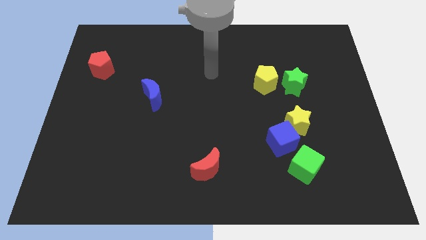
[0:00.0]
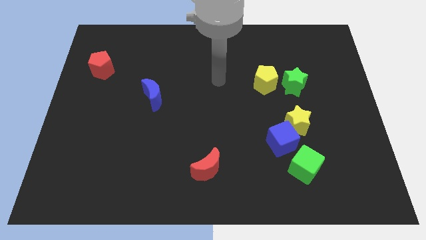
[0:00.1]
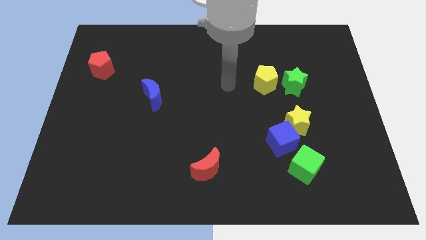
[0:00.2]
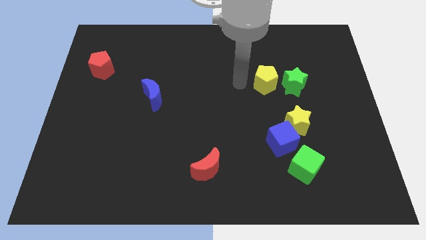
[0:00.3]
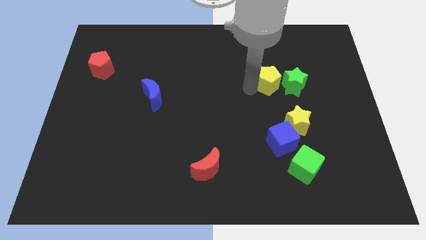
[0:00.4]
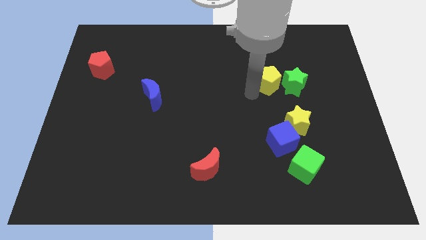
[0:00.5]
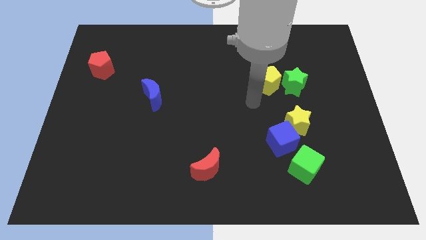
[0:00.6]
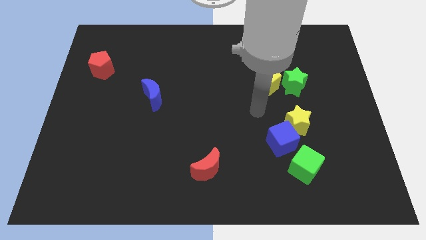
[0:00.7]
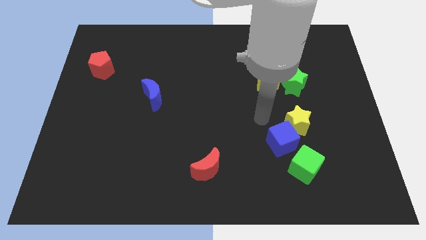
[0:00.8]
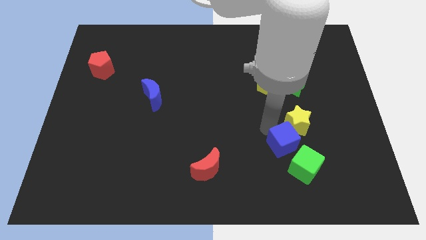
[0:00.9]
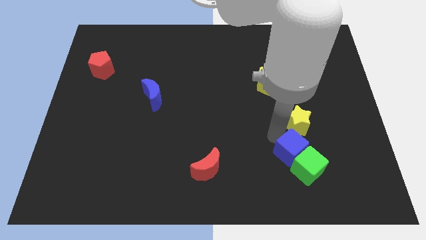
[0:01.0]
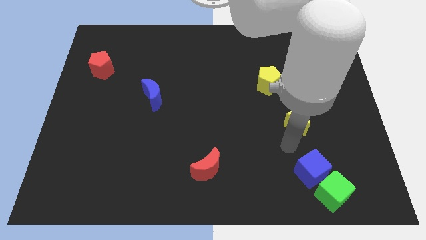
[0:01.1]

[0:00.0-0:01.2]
move the yellow star away from the blue cube

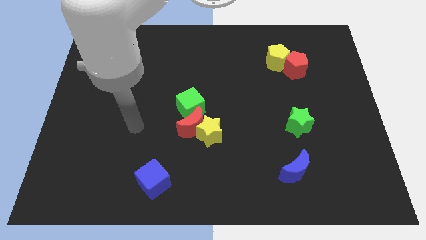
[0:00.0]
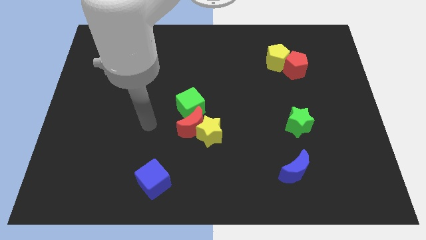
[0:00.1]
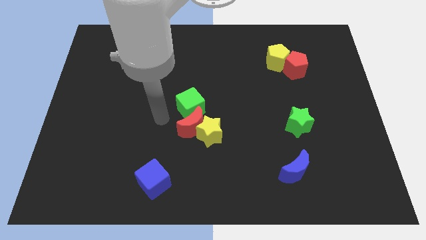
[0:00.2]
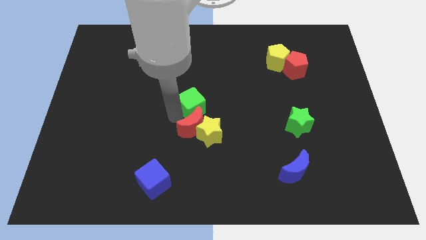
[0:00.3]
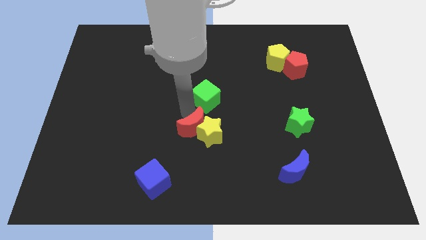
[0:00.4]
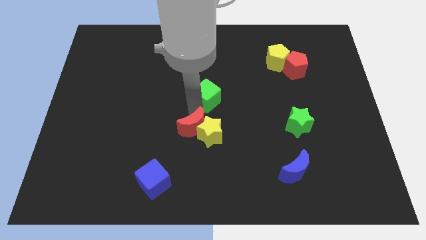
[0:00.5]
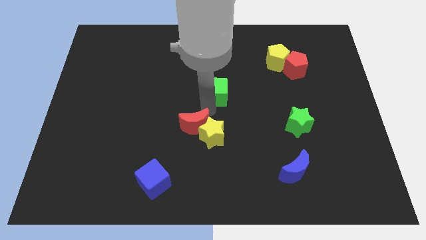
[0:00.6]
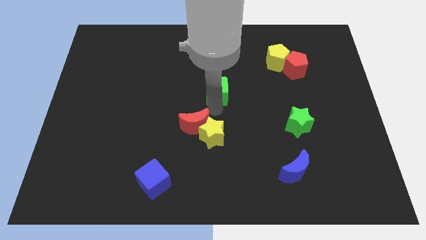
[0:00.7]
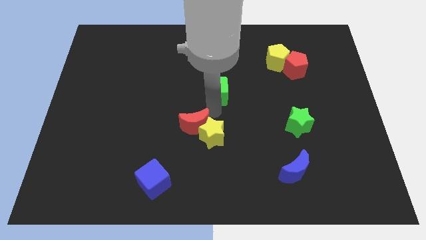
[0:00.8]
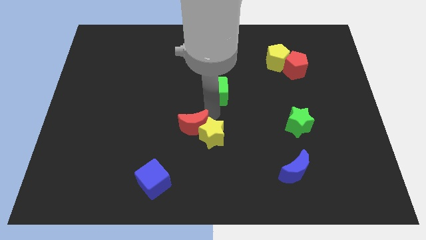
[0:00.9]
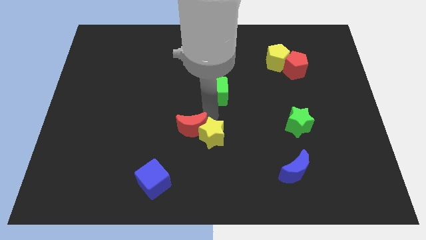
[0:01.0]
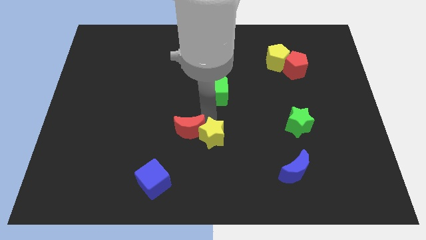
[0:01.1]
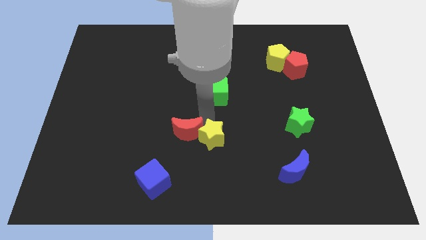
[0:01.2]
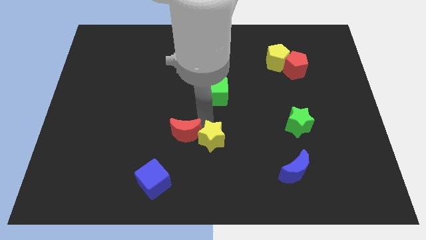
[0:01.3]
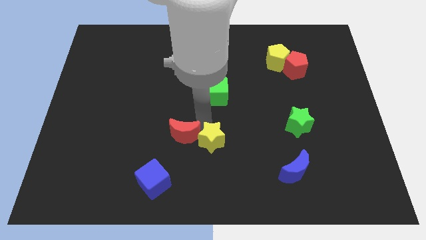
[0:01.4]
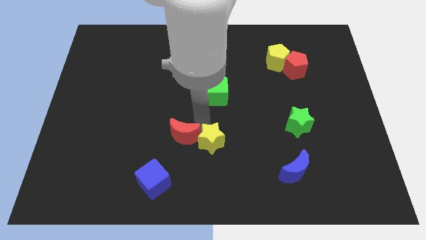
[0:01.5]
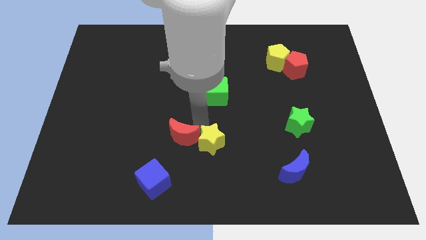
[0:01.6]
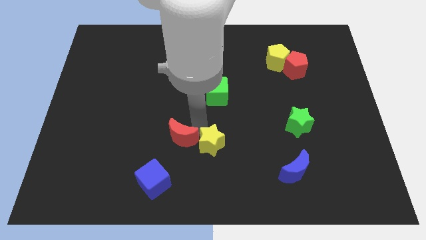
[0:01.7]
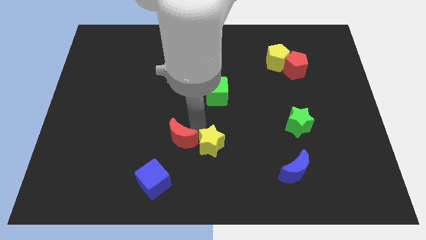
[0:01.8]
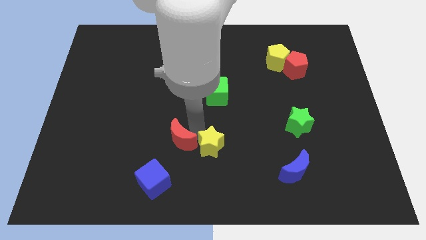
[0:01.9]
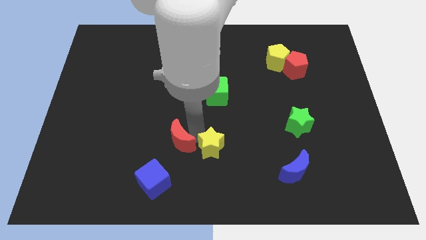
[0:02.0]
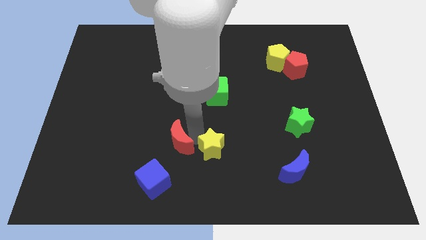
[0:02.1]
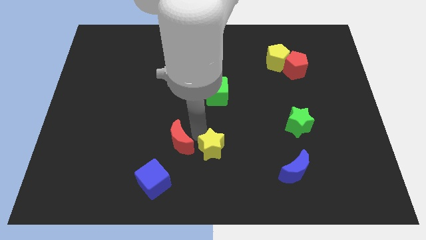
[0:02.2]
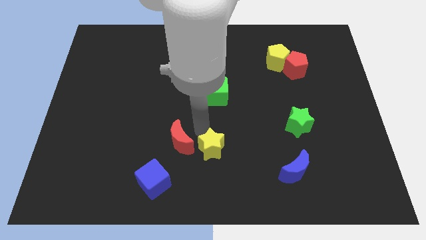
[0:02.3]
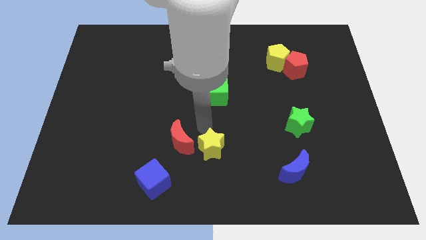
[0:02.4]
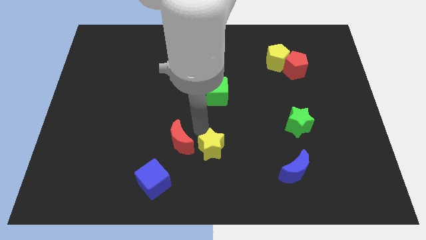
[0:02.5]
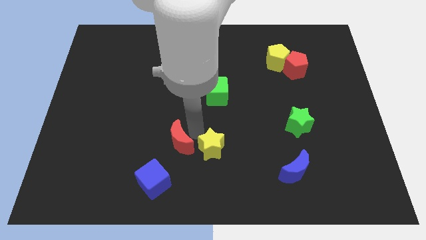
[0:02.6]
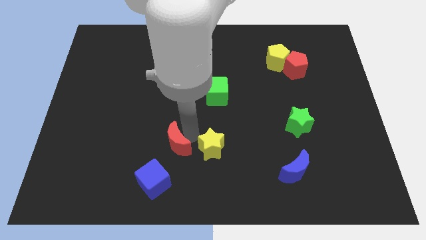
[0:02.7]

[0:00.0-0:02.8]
move the red moon away from the yellow star and green cube

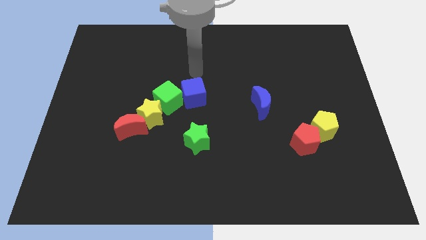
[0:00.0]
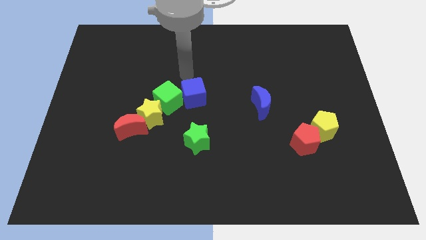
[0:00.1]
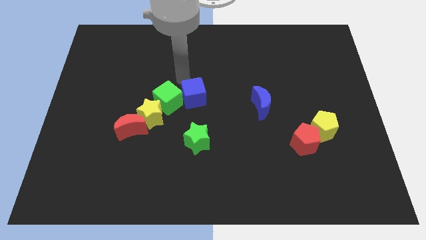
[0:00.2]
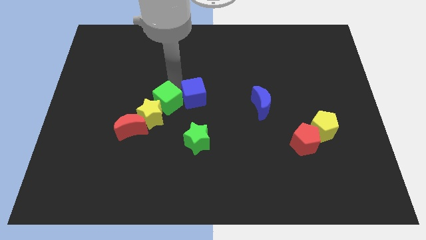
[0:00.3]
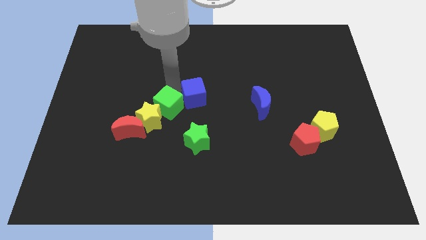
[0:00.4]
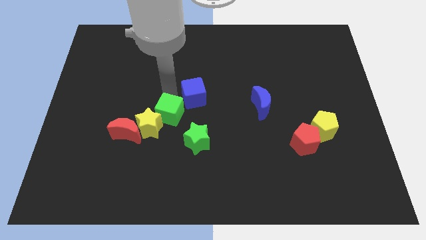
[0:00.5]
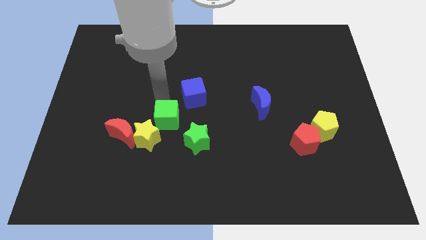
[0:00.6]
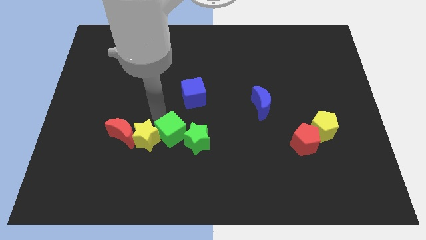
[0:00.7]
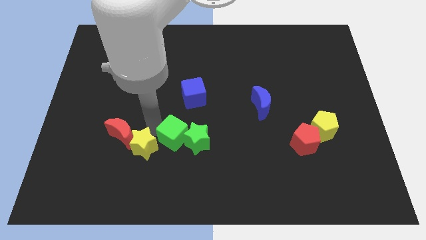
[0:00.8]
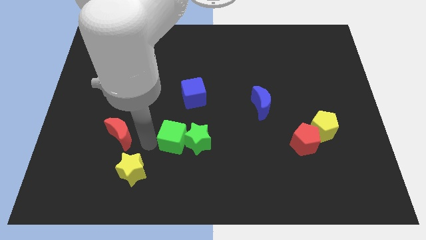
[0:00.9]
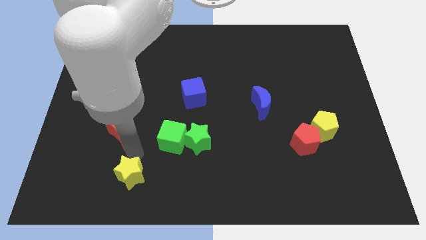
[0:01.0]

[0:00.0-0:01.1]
move the red moon away from the yellow star

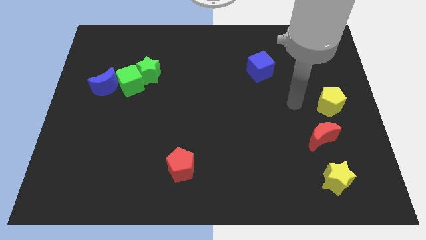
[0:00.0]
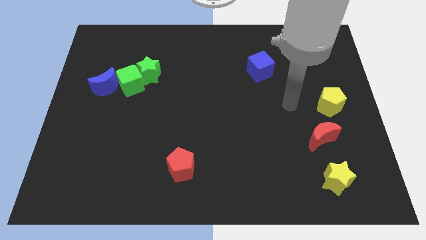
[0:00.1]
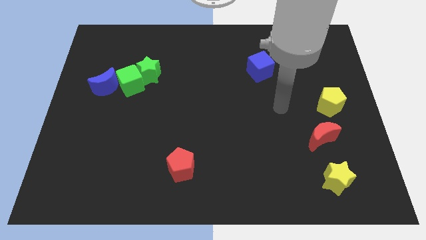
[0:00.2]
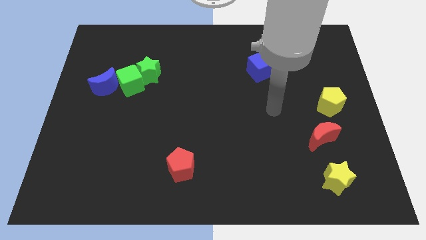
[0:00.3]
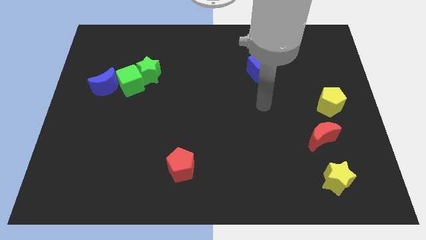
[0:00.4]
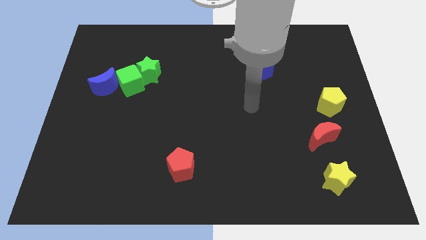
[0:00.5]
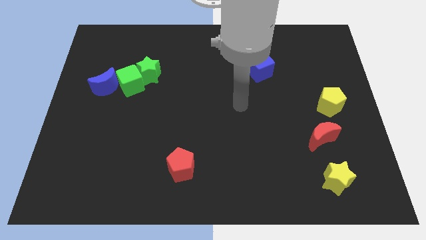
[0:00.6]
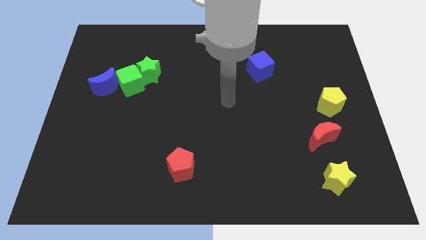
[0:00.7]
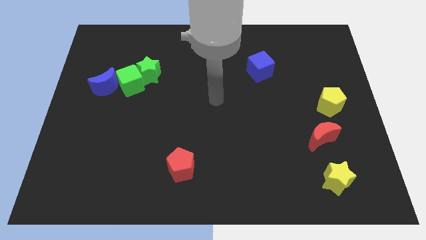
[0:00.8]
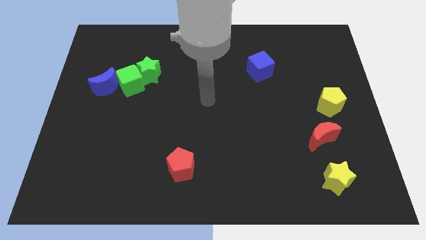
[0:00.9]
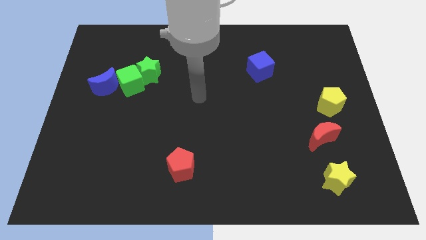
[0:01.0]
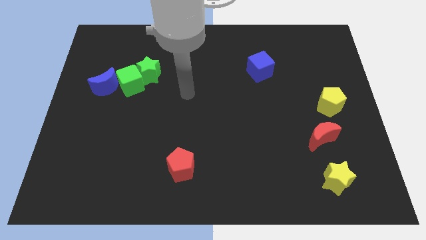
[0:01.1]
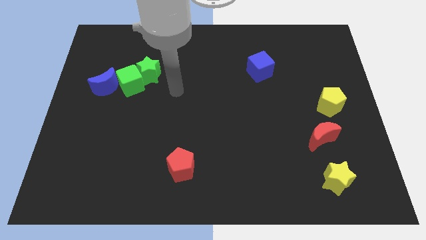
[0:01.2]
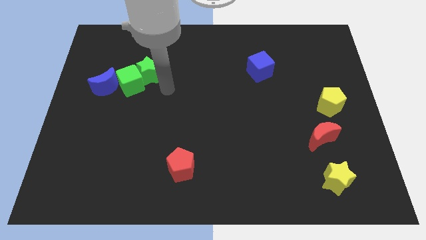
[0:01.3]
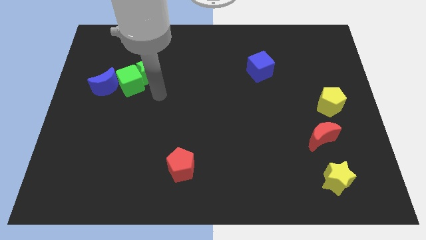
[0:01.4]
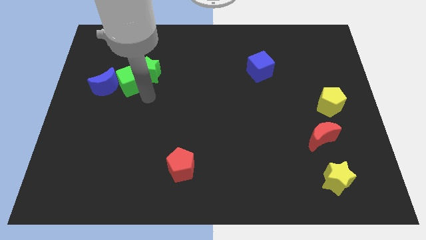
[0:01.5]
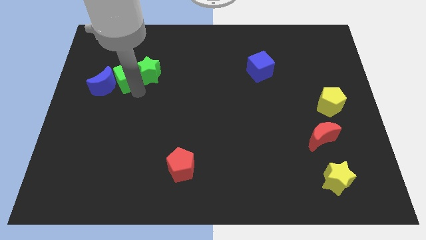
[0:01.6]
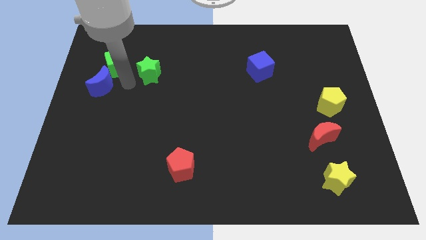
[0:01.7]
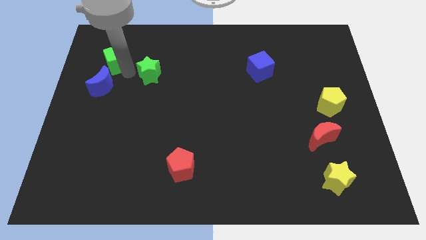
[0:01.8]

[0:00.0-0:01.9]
separate the green star from the green cube

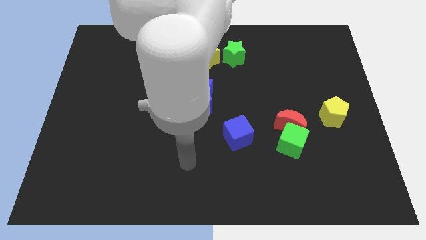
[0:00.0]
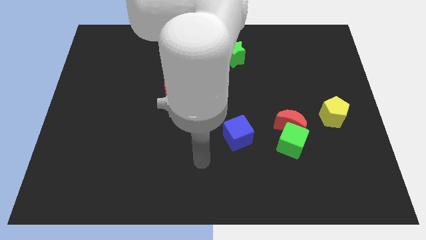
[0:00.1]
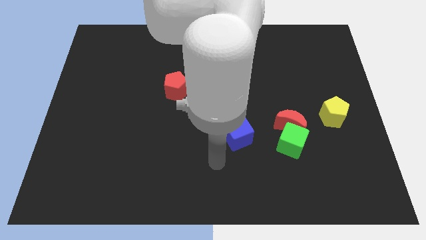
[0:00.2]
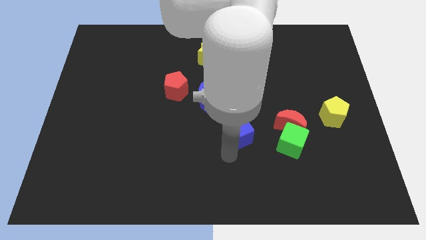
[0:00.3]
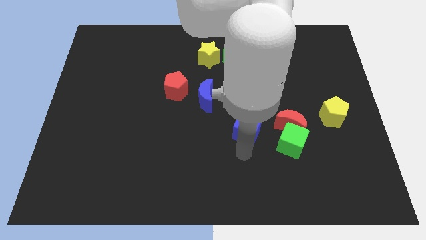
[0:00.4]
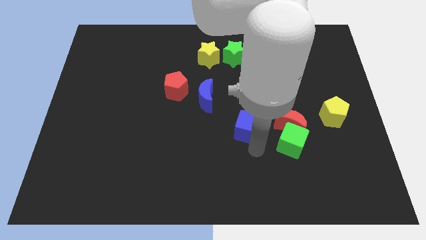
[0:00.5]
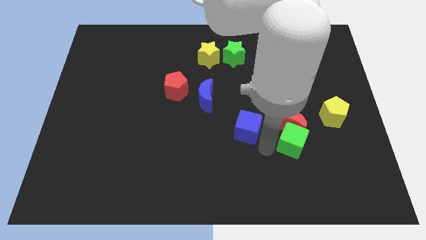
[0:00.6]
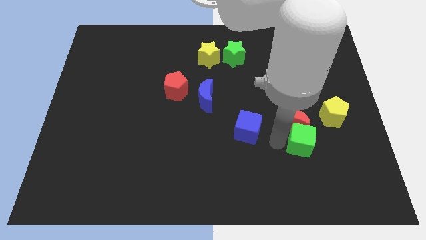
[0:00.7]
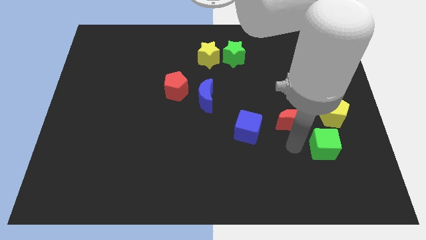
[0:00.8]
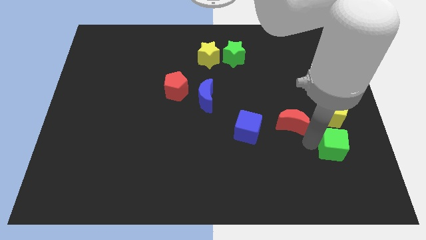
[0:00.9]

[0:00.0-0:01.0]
move the red moon away from the green cube

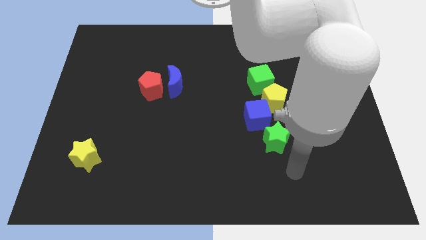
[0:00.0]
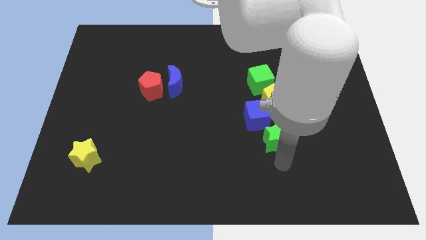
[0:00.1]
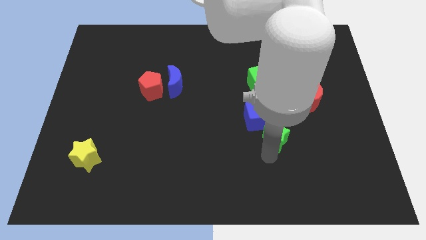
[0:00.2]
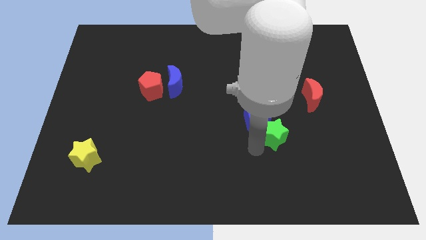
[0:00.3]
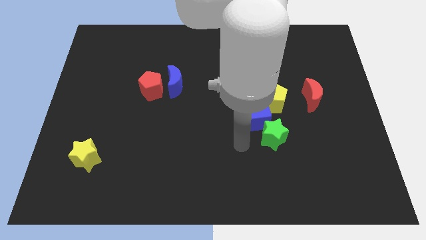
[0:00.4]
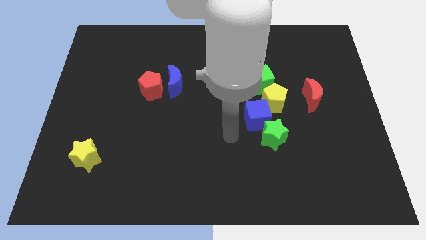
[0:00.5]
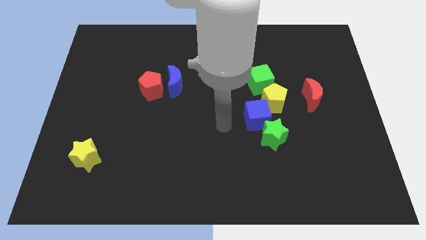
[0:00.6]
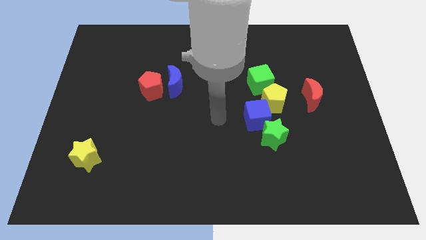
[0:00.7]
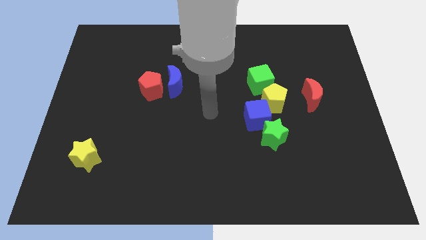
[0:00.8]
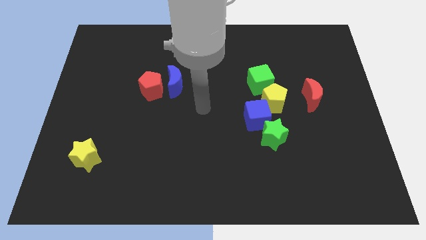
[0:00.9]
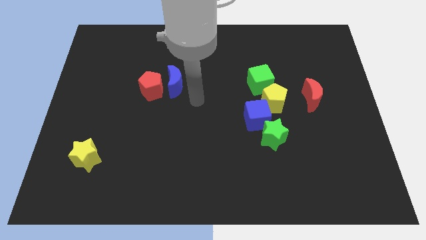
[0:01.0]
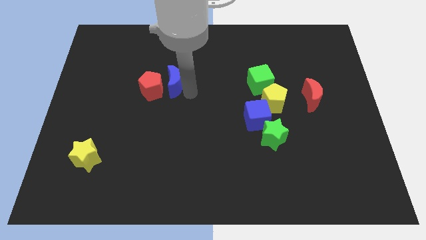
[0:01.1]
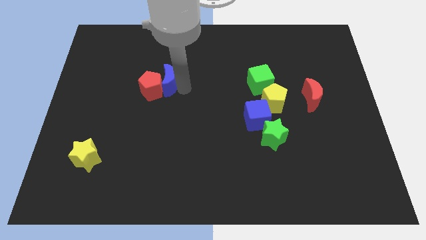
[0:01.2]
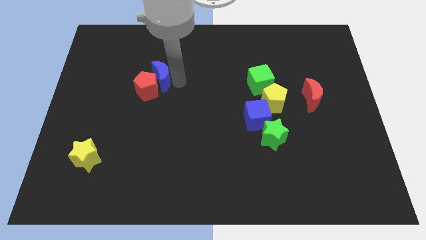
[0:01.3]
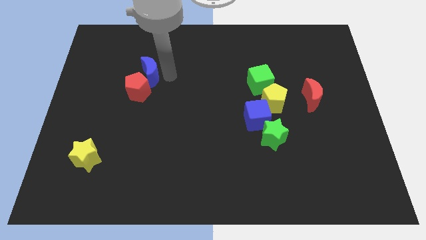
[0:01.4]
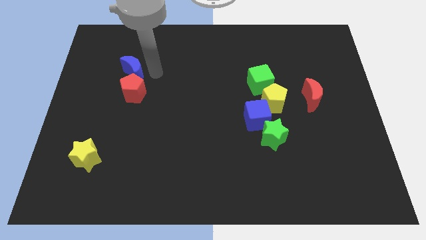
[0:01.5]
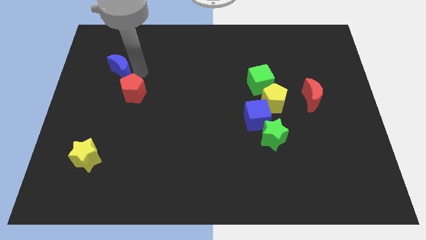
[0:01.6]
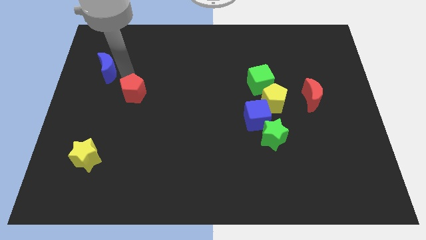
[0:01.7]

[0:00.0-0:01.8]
separate the red pentagon from the blue moon
